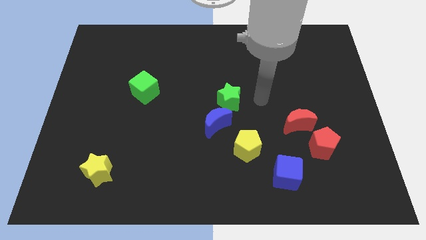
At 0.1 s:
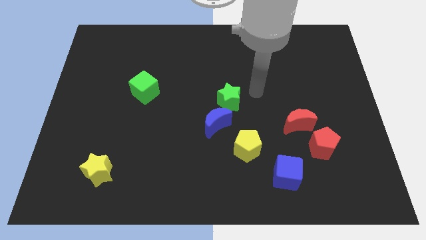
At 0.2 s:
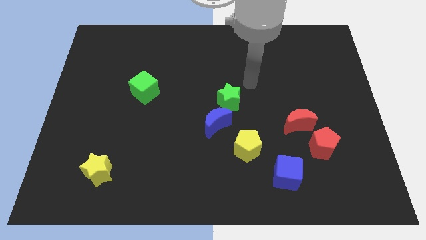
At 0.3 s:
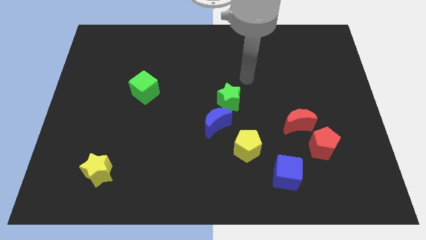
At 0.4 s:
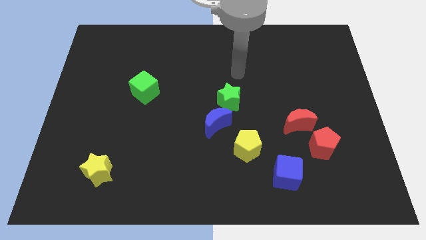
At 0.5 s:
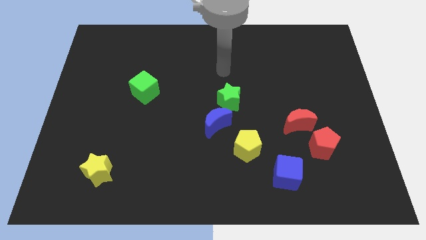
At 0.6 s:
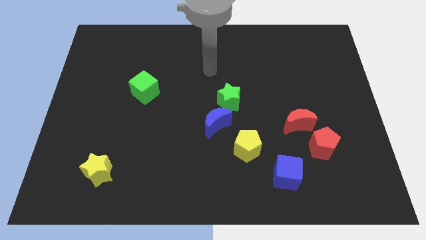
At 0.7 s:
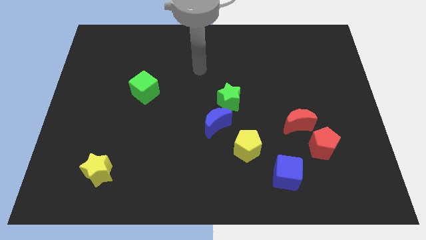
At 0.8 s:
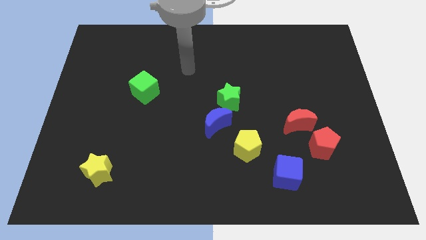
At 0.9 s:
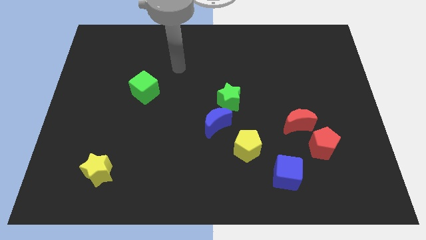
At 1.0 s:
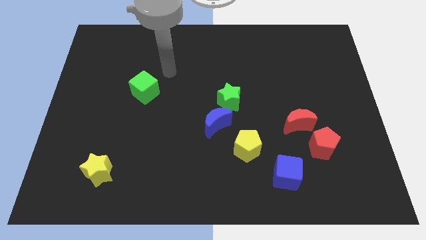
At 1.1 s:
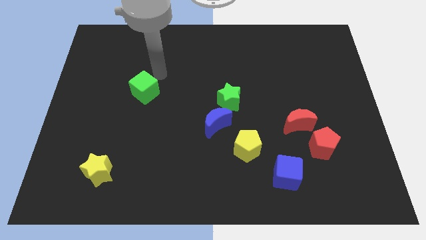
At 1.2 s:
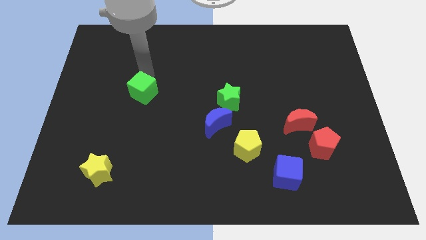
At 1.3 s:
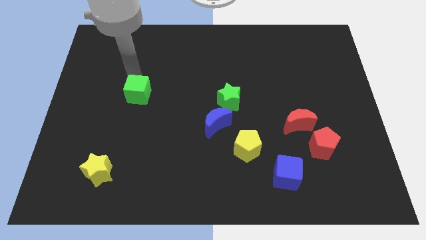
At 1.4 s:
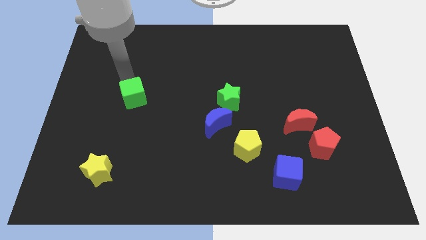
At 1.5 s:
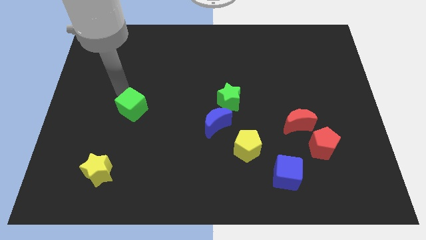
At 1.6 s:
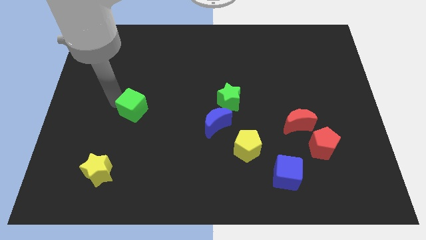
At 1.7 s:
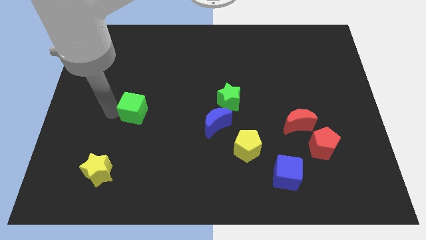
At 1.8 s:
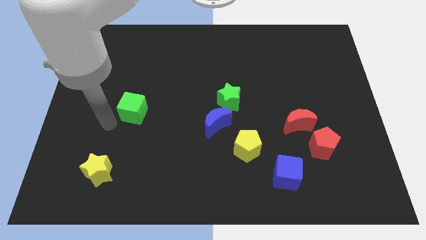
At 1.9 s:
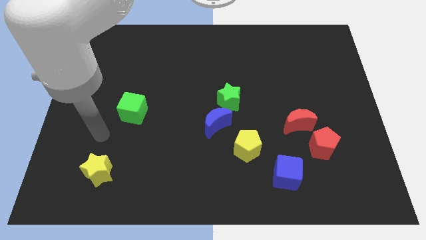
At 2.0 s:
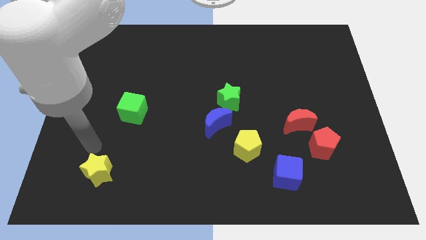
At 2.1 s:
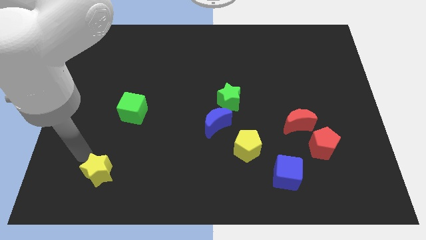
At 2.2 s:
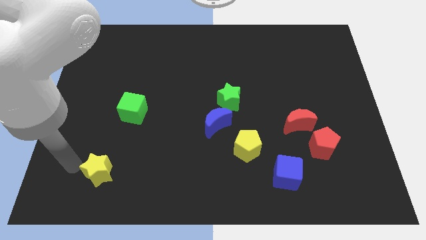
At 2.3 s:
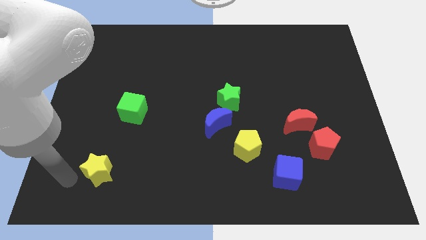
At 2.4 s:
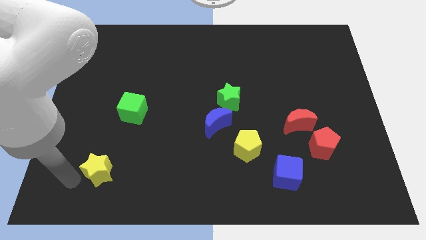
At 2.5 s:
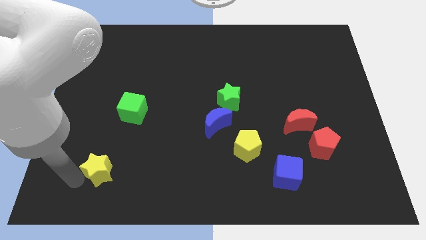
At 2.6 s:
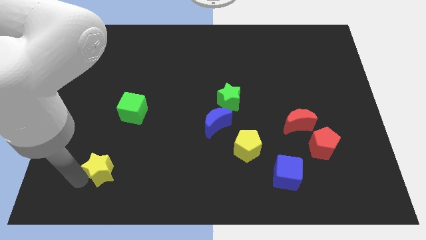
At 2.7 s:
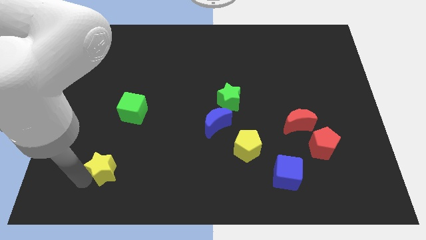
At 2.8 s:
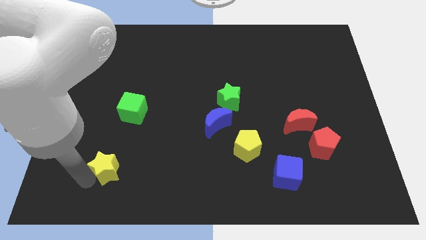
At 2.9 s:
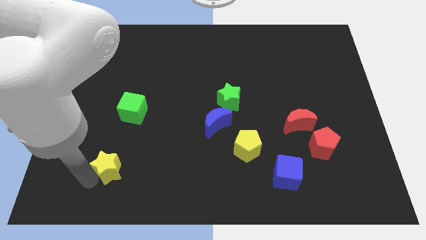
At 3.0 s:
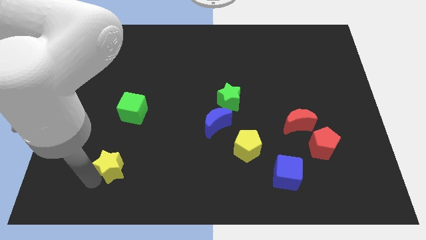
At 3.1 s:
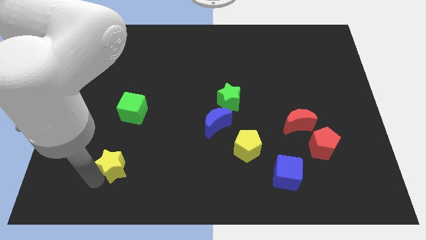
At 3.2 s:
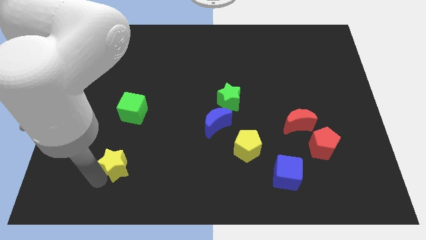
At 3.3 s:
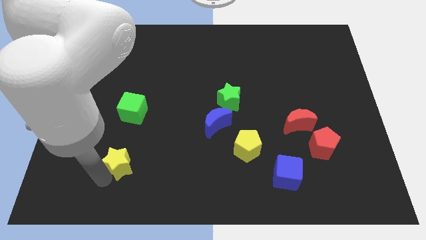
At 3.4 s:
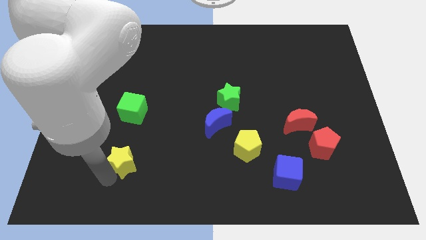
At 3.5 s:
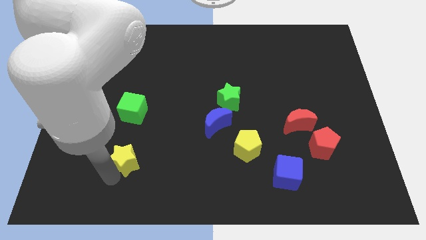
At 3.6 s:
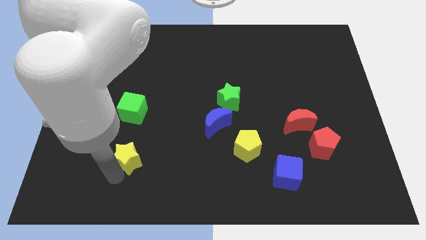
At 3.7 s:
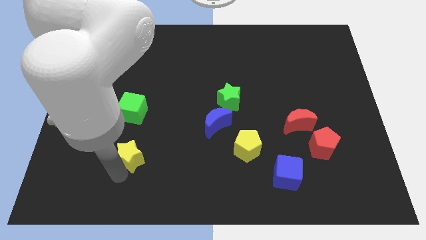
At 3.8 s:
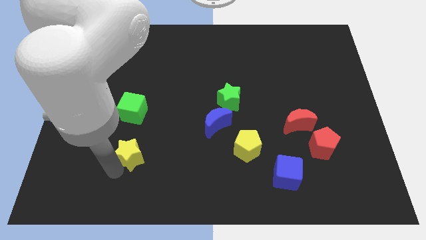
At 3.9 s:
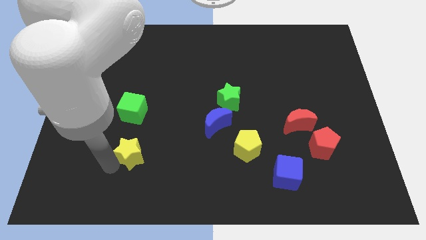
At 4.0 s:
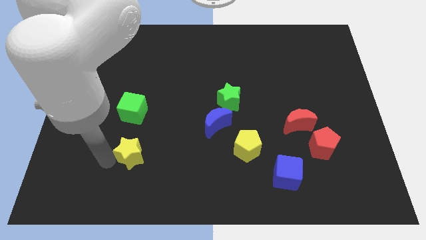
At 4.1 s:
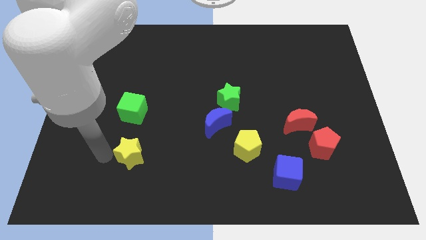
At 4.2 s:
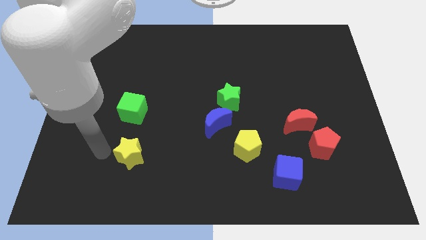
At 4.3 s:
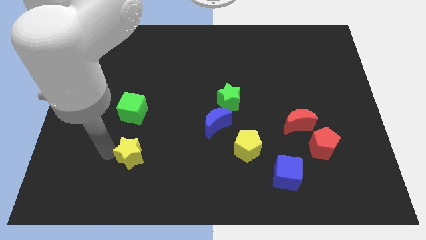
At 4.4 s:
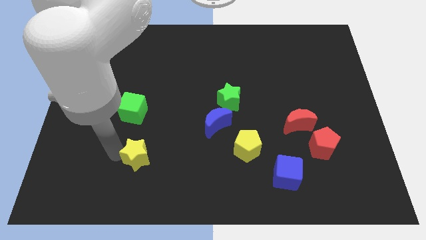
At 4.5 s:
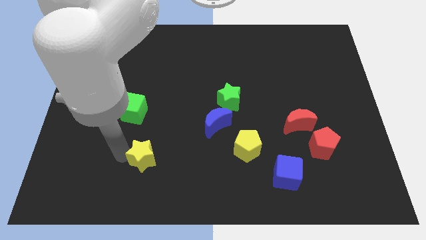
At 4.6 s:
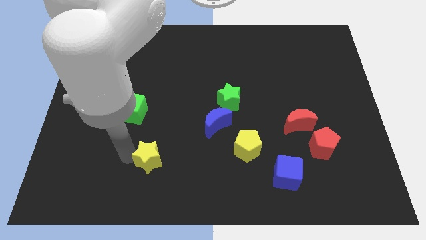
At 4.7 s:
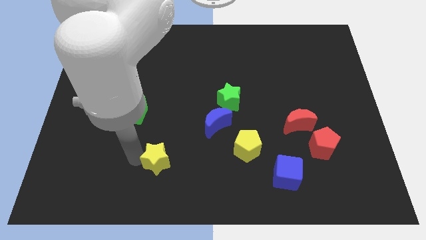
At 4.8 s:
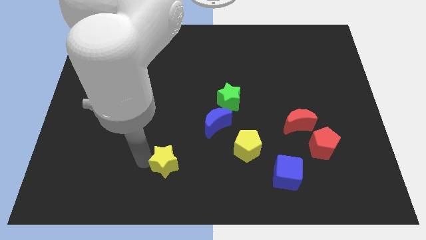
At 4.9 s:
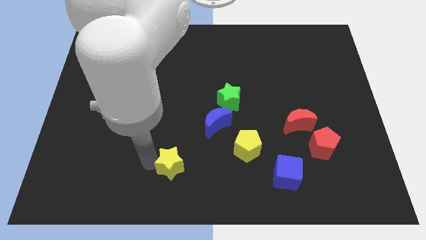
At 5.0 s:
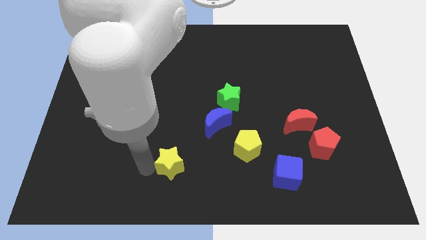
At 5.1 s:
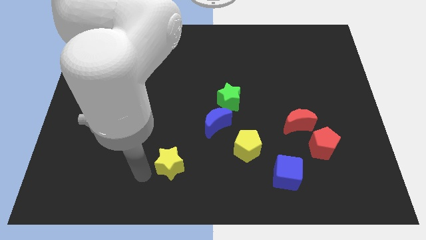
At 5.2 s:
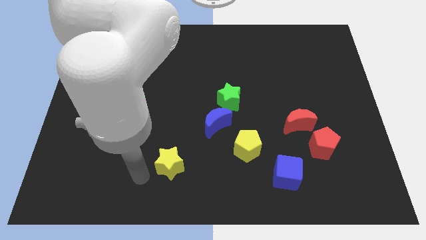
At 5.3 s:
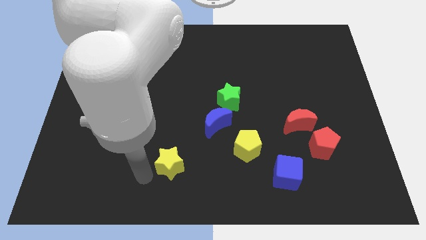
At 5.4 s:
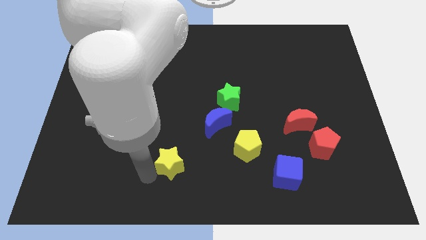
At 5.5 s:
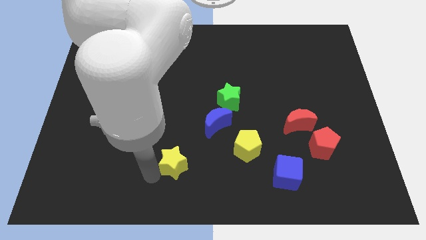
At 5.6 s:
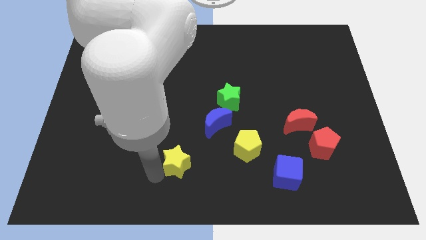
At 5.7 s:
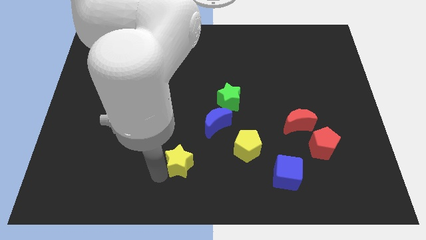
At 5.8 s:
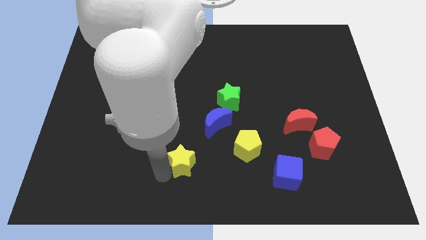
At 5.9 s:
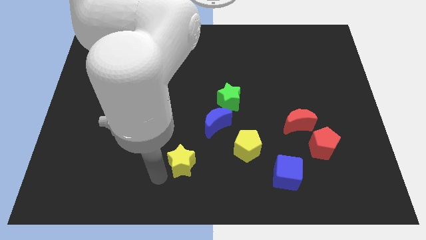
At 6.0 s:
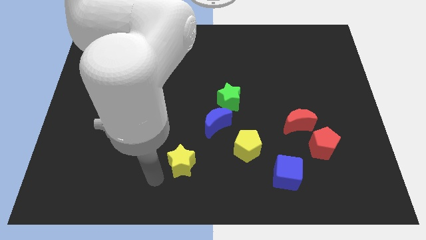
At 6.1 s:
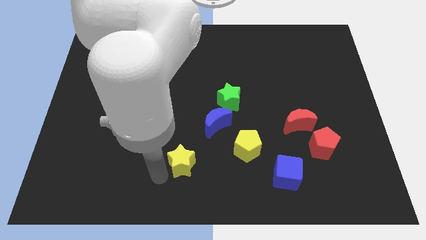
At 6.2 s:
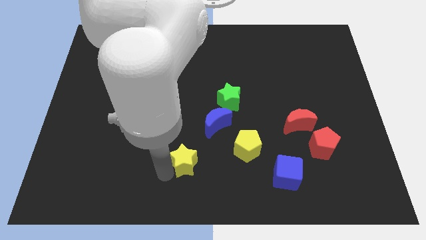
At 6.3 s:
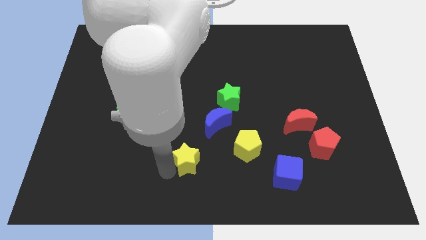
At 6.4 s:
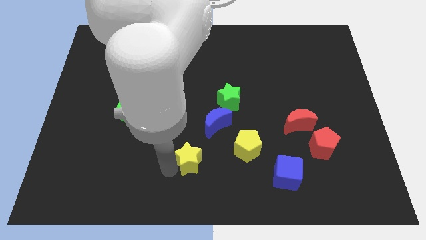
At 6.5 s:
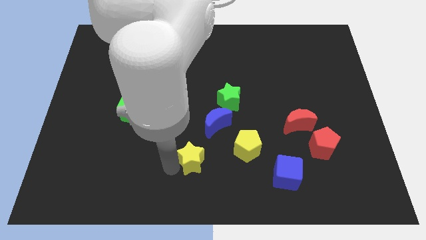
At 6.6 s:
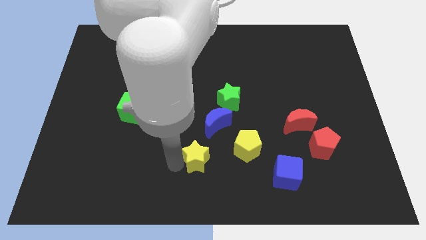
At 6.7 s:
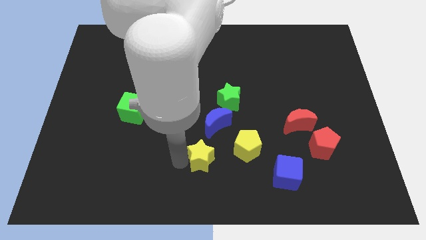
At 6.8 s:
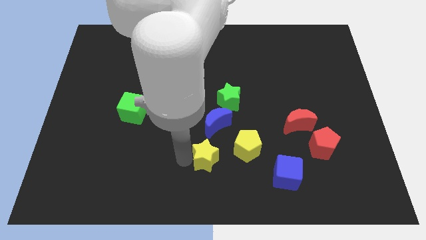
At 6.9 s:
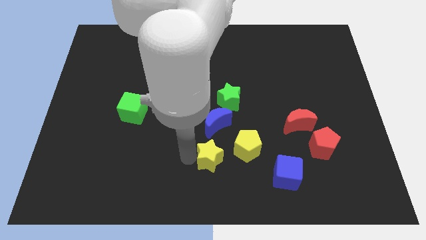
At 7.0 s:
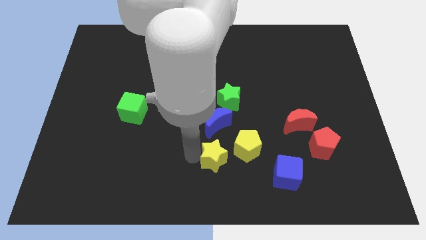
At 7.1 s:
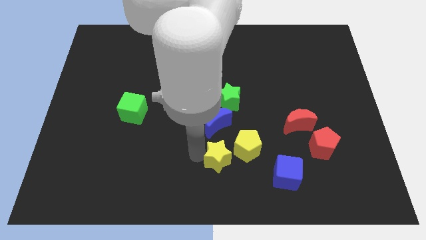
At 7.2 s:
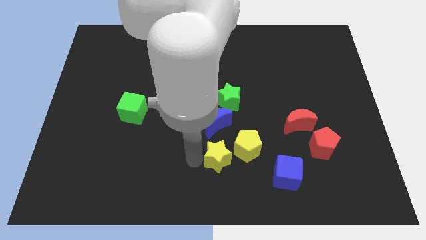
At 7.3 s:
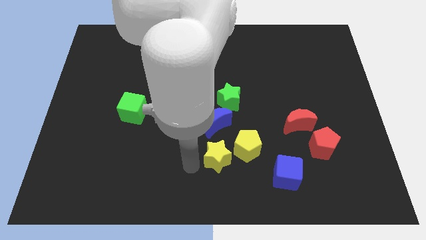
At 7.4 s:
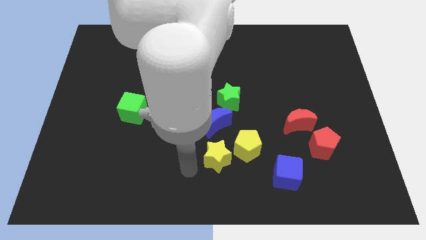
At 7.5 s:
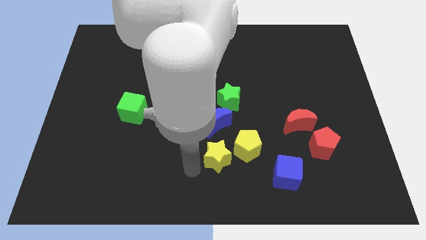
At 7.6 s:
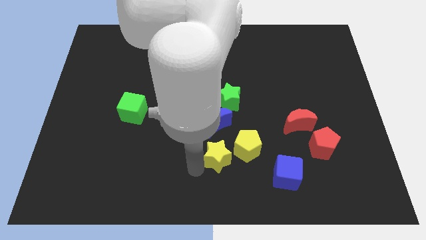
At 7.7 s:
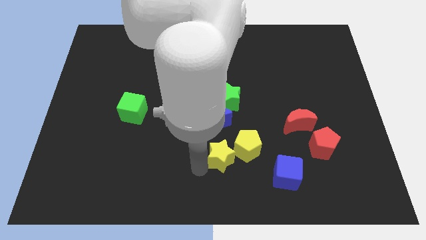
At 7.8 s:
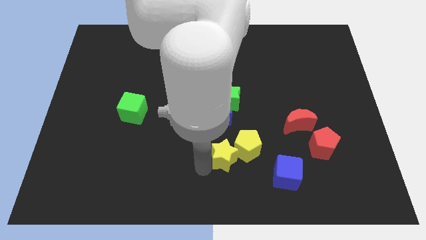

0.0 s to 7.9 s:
put the yellow star close to the yellow pentagon
